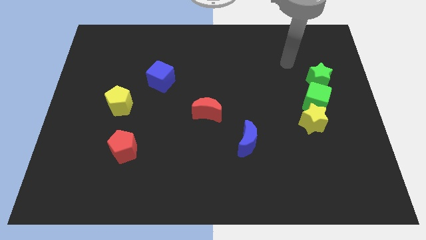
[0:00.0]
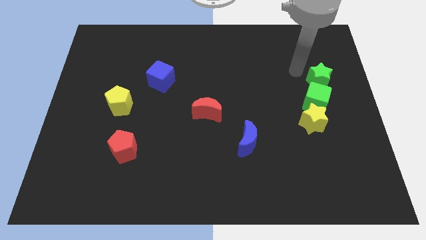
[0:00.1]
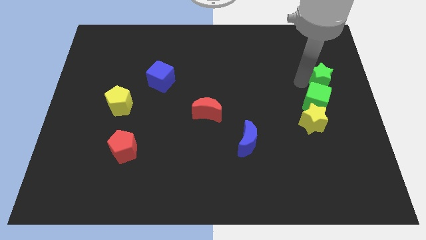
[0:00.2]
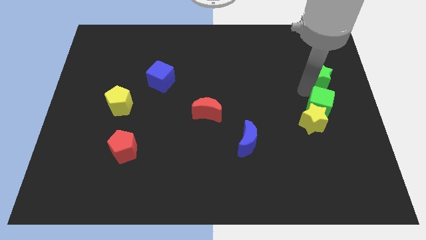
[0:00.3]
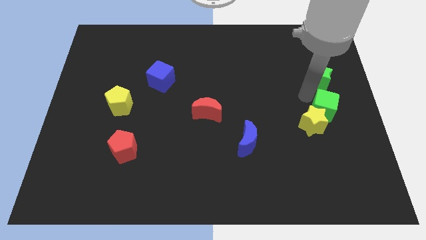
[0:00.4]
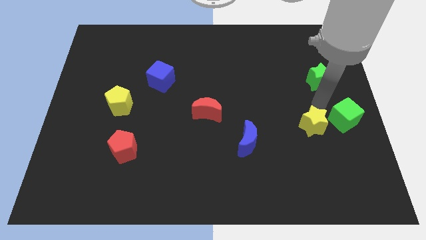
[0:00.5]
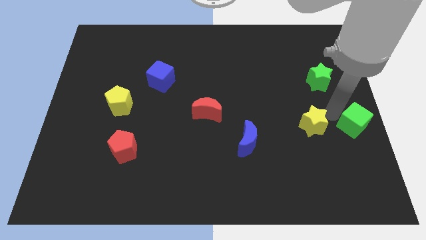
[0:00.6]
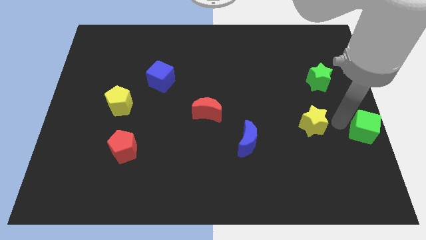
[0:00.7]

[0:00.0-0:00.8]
move the yellow star away from the green cube

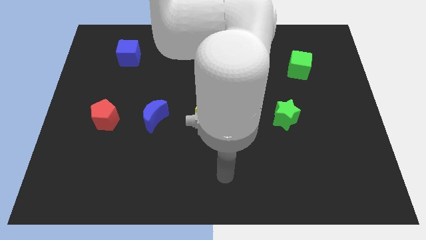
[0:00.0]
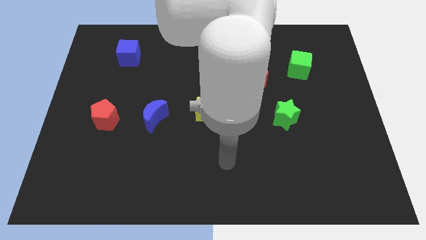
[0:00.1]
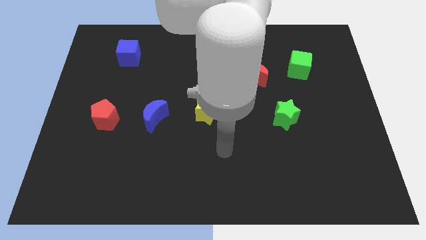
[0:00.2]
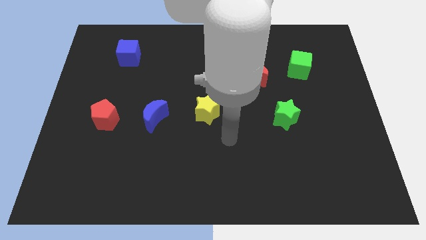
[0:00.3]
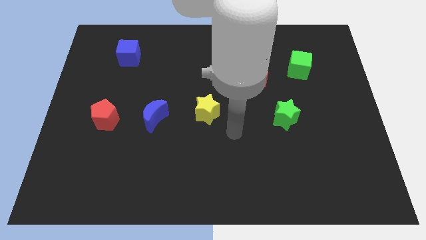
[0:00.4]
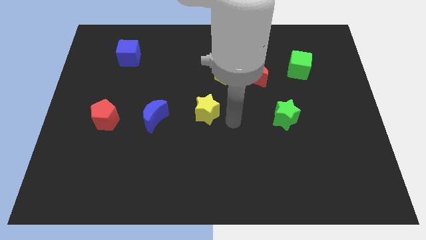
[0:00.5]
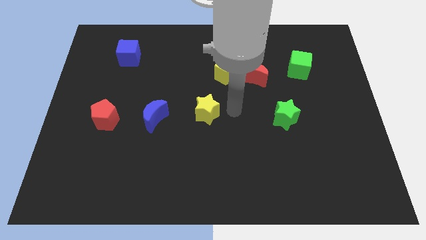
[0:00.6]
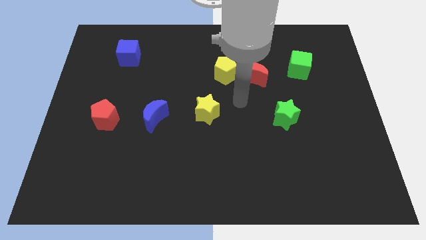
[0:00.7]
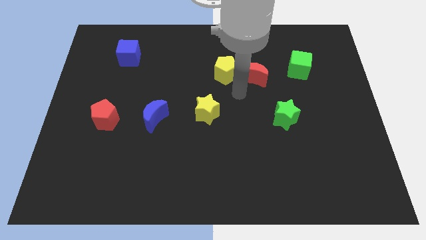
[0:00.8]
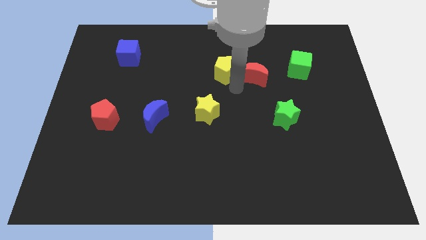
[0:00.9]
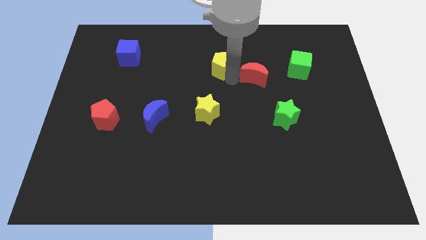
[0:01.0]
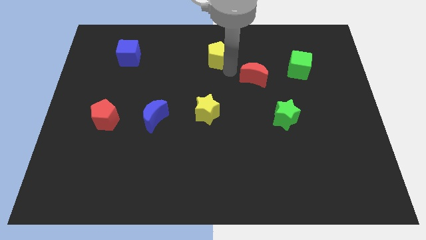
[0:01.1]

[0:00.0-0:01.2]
pull the red moon apart from the yellow pentagon

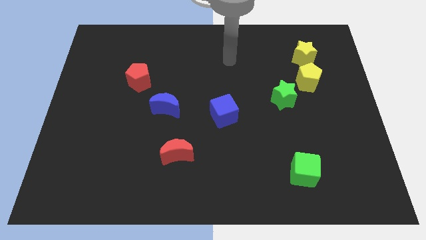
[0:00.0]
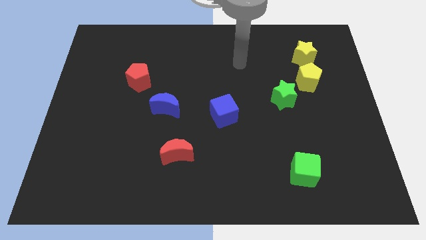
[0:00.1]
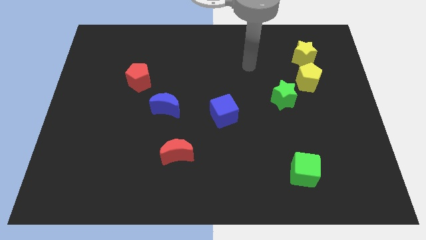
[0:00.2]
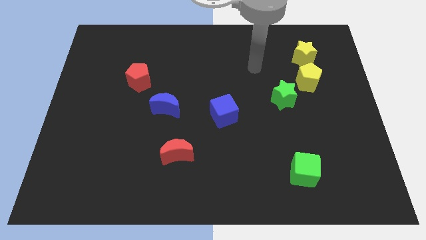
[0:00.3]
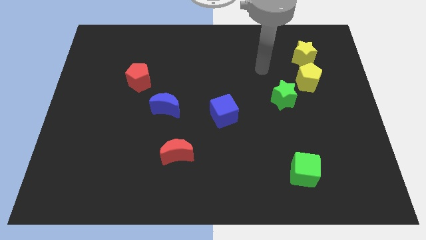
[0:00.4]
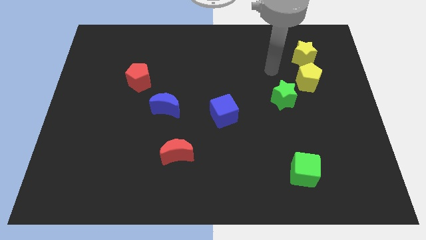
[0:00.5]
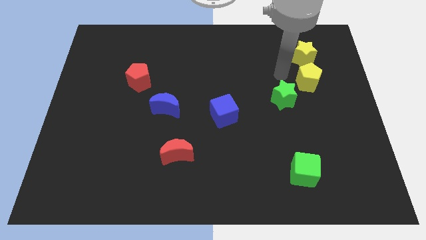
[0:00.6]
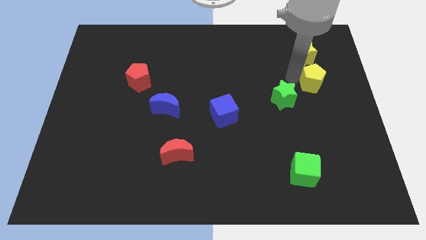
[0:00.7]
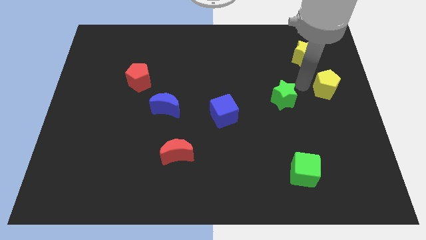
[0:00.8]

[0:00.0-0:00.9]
move the green star away from the yellow pentagon

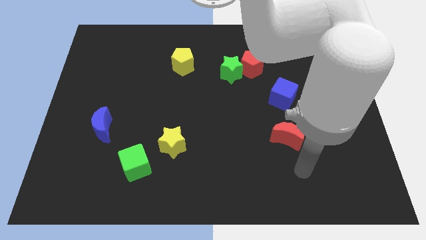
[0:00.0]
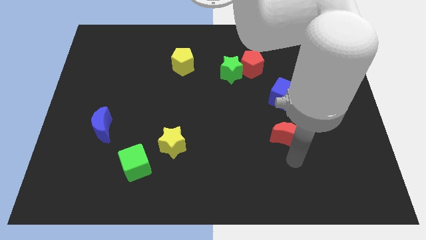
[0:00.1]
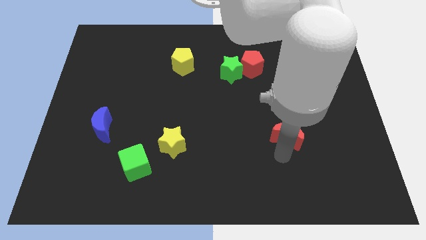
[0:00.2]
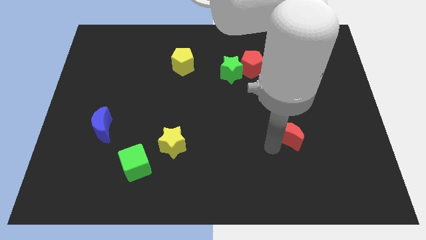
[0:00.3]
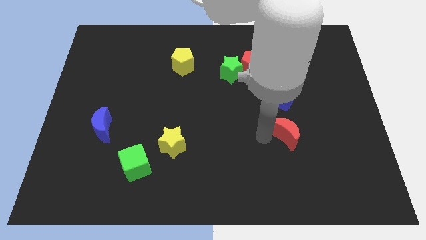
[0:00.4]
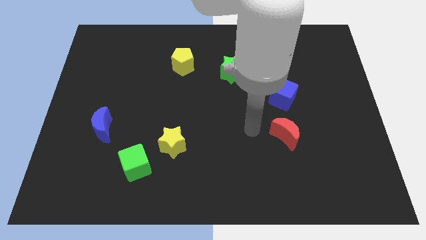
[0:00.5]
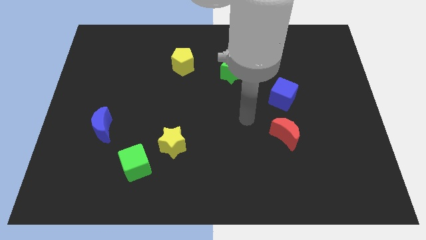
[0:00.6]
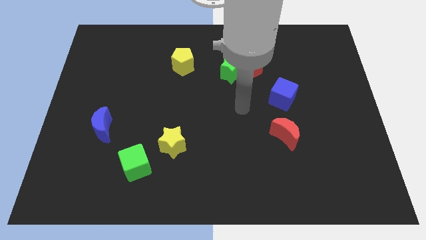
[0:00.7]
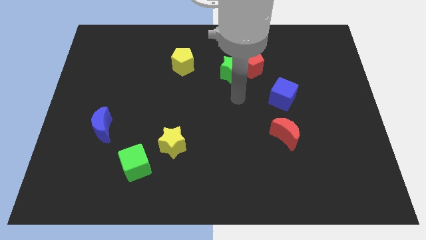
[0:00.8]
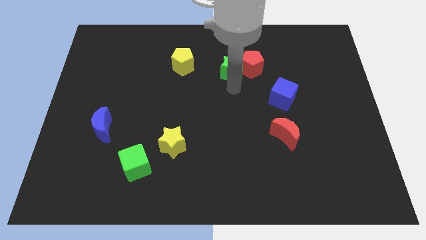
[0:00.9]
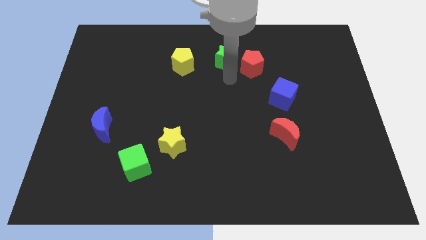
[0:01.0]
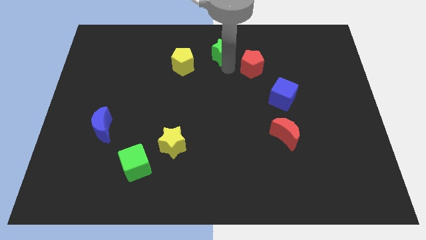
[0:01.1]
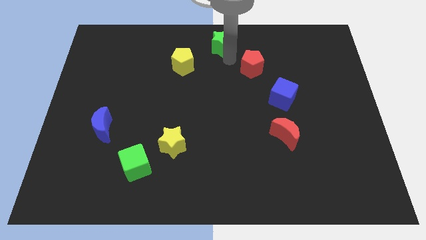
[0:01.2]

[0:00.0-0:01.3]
separate the red pentagon from the green star

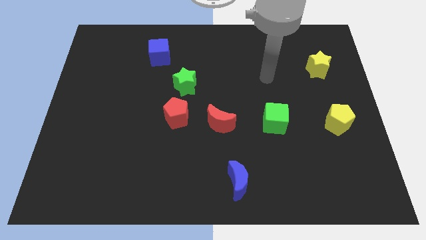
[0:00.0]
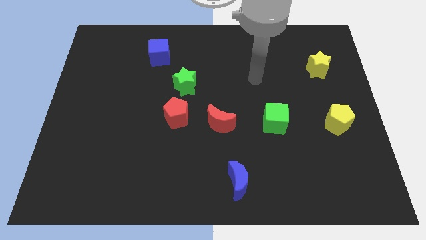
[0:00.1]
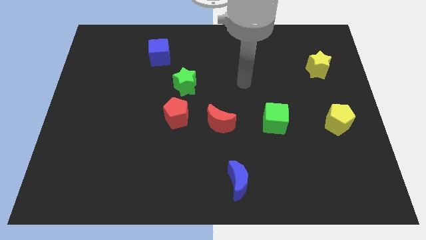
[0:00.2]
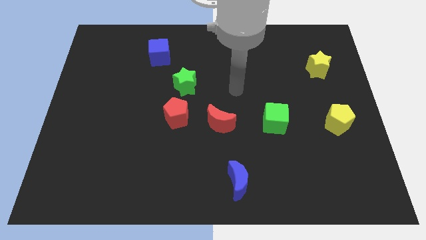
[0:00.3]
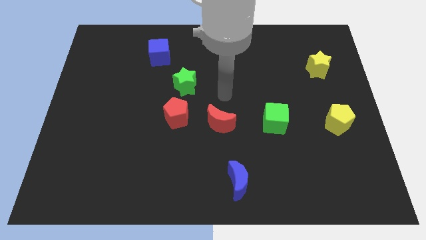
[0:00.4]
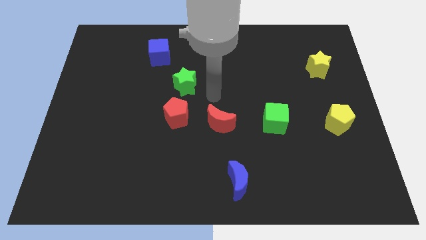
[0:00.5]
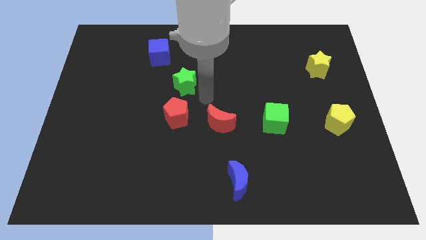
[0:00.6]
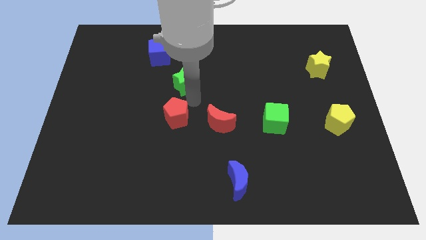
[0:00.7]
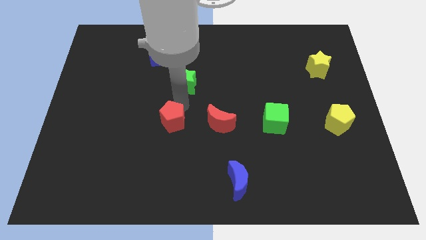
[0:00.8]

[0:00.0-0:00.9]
separate the green star from the red pentagon

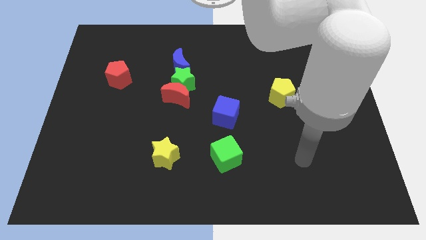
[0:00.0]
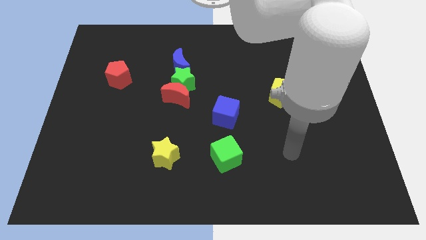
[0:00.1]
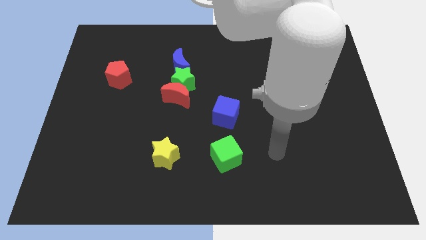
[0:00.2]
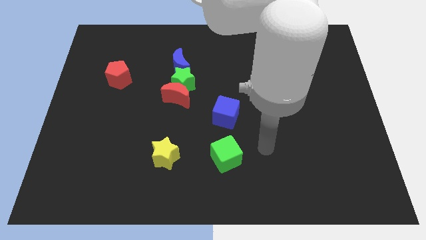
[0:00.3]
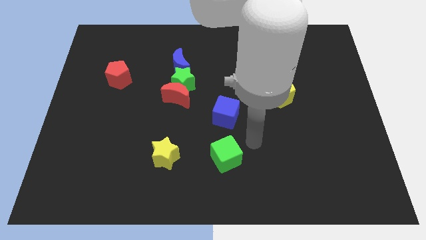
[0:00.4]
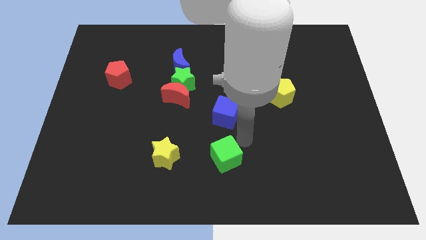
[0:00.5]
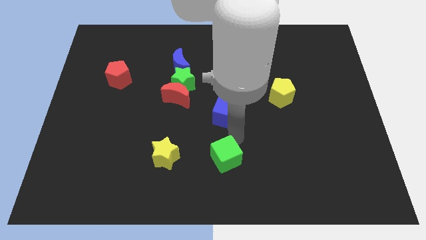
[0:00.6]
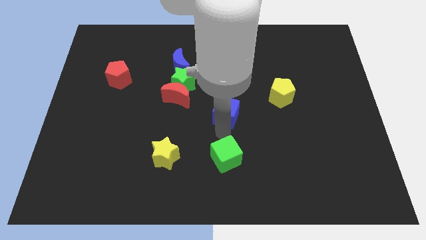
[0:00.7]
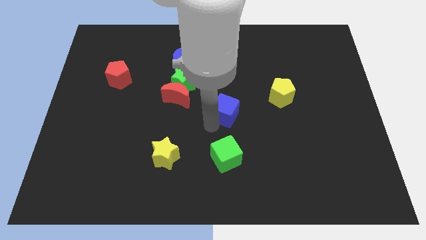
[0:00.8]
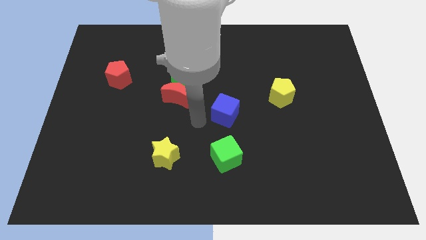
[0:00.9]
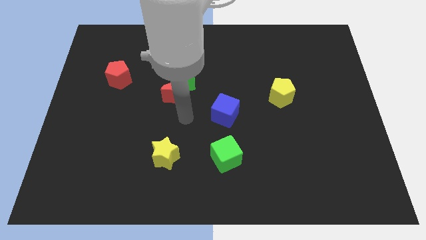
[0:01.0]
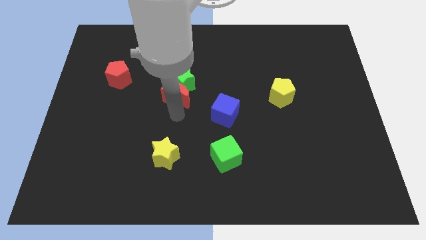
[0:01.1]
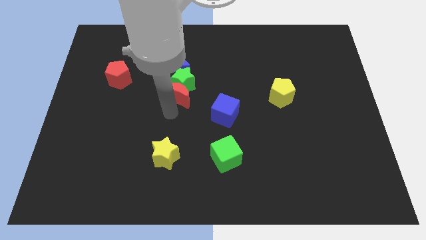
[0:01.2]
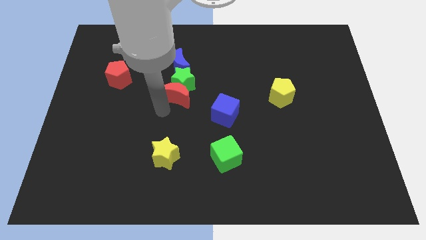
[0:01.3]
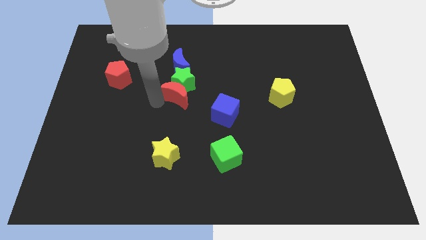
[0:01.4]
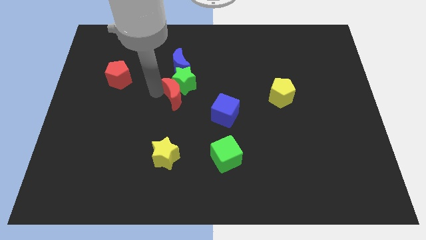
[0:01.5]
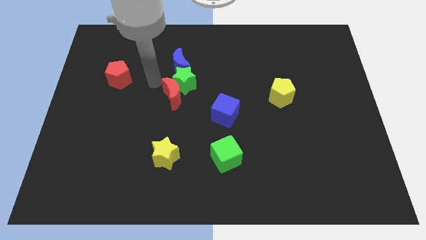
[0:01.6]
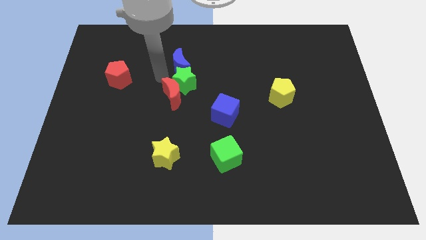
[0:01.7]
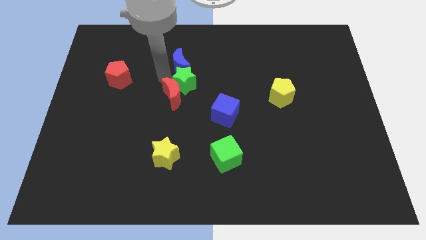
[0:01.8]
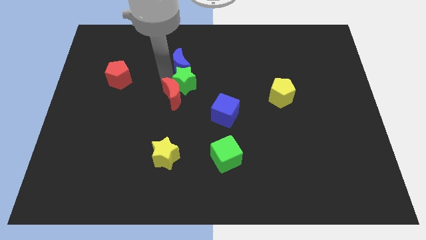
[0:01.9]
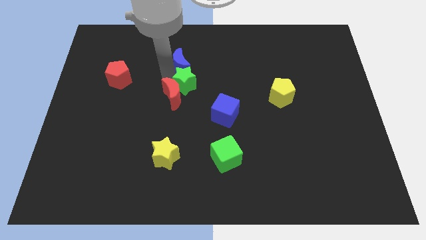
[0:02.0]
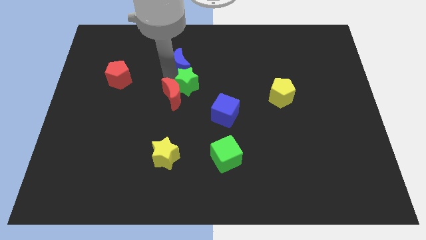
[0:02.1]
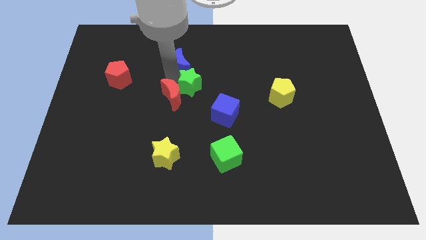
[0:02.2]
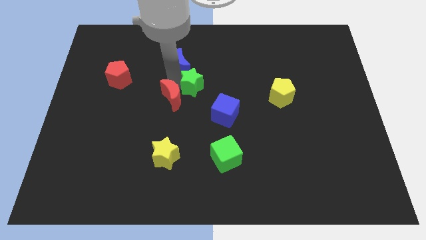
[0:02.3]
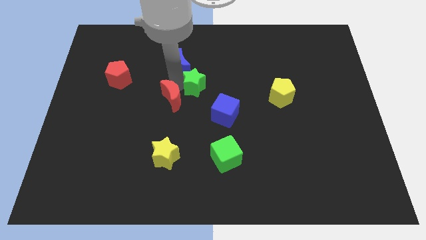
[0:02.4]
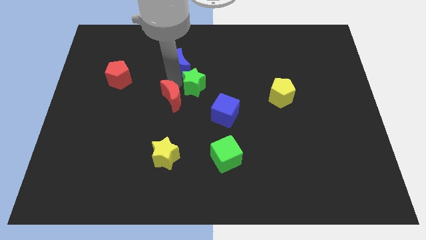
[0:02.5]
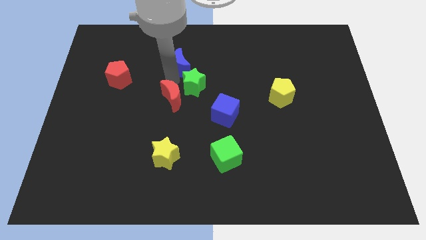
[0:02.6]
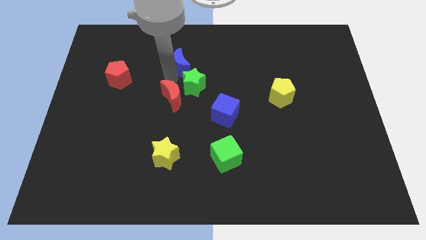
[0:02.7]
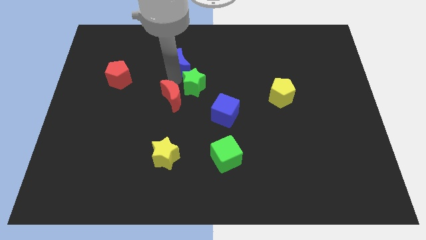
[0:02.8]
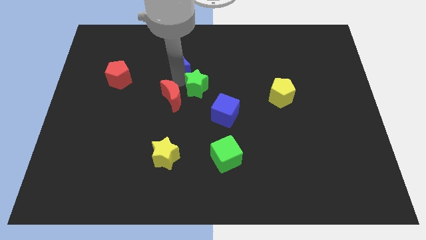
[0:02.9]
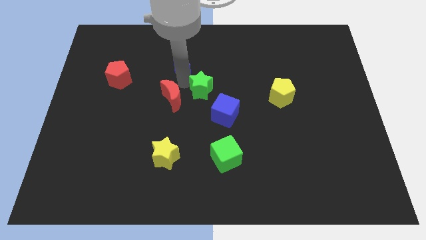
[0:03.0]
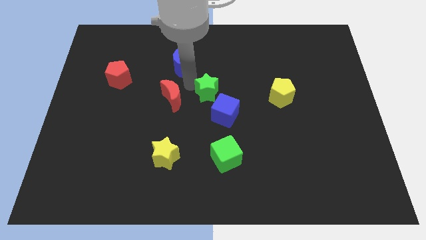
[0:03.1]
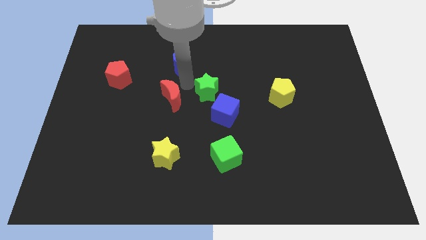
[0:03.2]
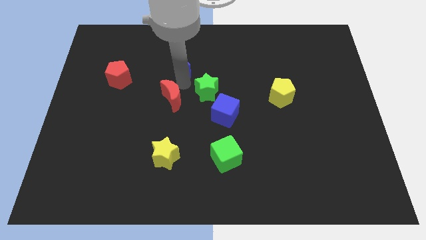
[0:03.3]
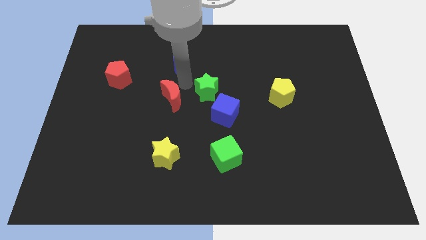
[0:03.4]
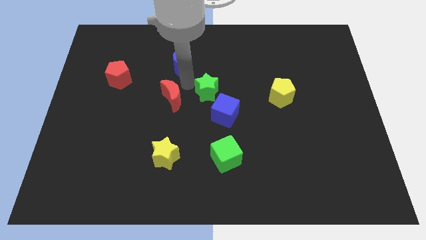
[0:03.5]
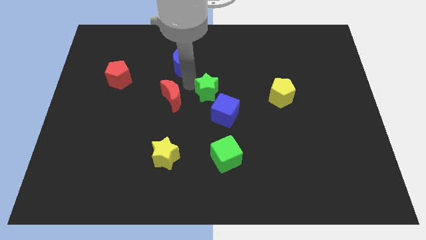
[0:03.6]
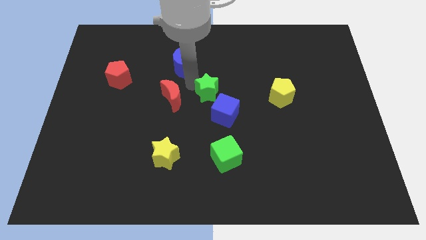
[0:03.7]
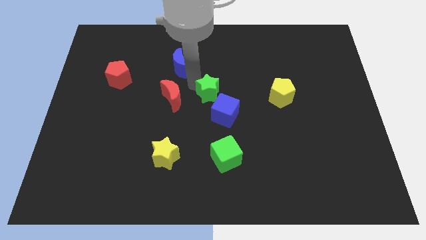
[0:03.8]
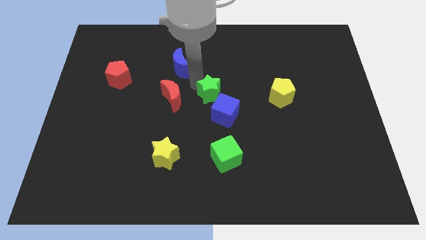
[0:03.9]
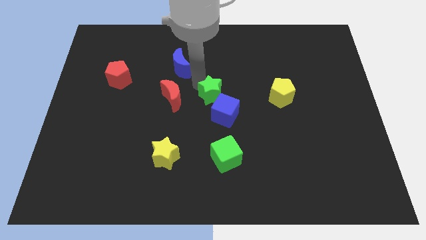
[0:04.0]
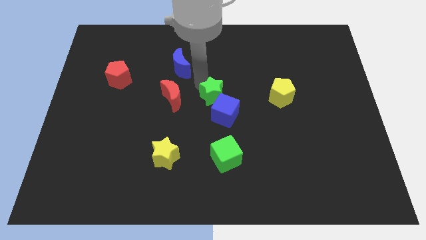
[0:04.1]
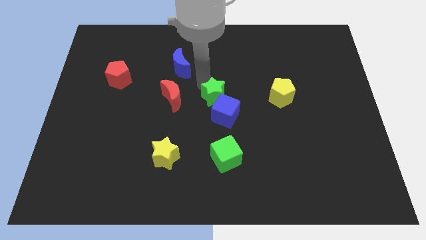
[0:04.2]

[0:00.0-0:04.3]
separate the green star from the red moon and blue moon
